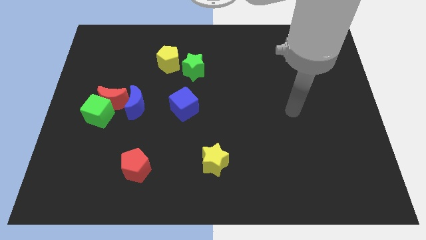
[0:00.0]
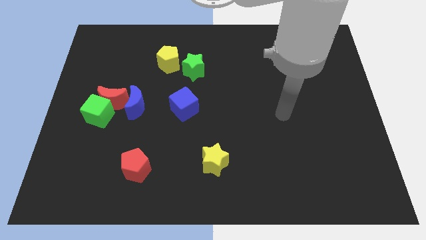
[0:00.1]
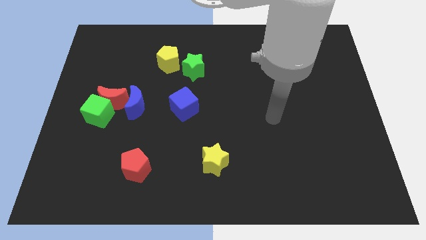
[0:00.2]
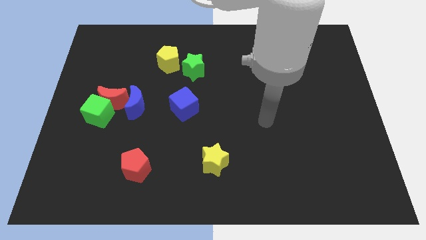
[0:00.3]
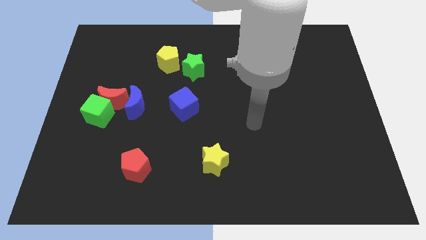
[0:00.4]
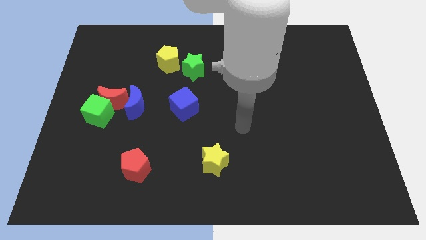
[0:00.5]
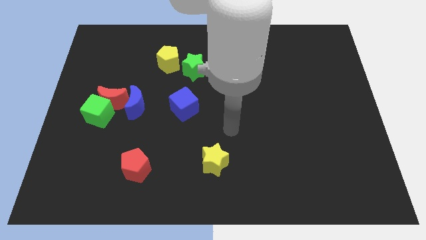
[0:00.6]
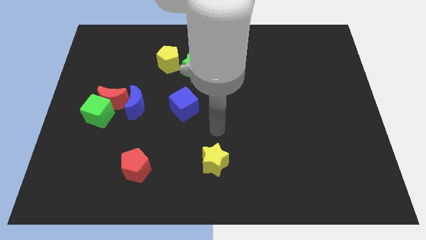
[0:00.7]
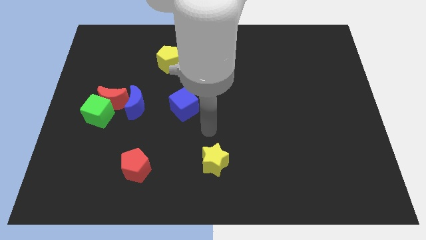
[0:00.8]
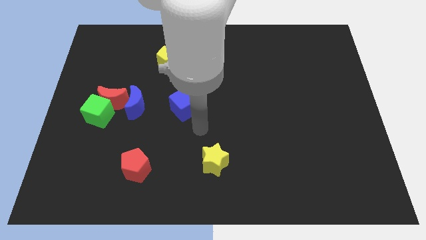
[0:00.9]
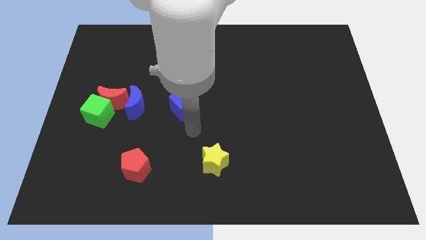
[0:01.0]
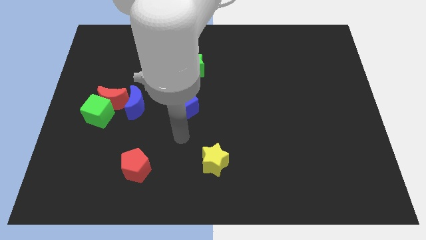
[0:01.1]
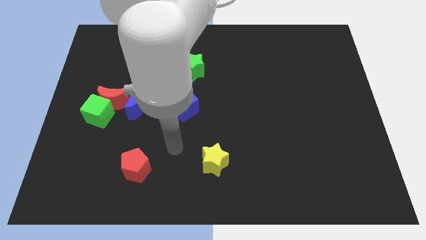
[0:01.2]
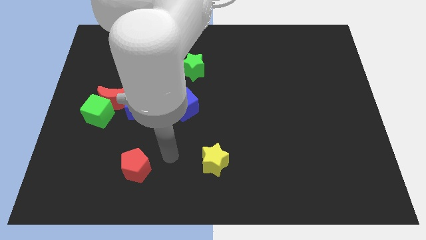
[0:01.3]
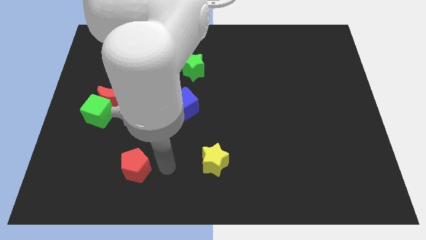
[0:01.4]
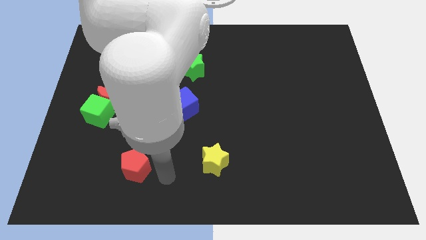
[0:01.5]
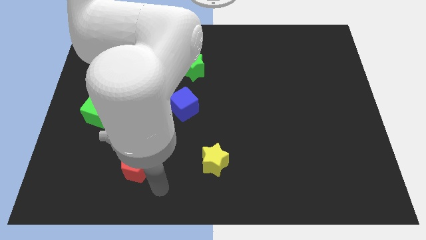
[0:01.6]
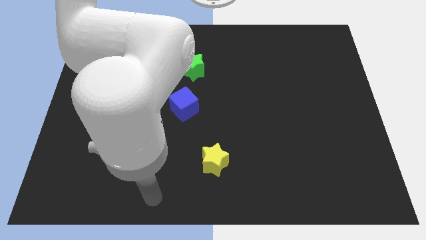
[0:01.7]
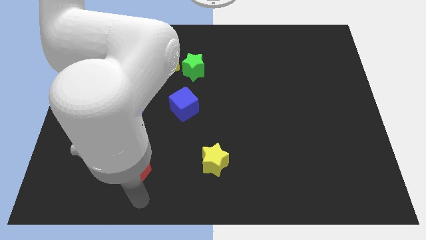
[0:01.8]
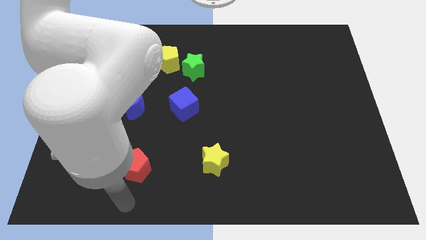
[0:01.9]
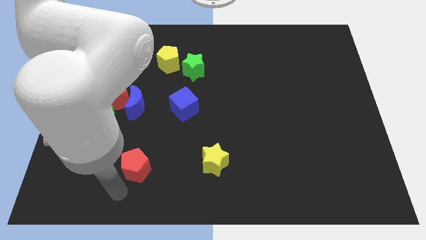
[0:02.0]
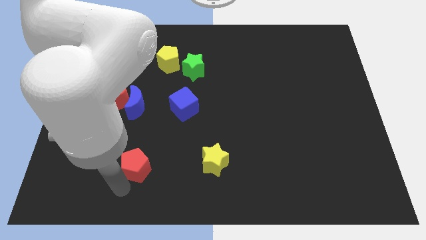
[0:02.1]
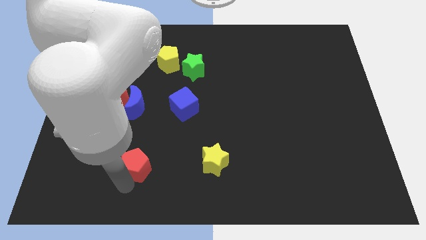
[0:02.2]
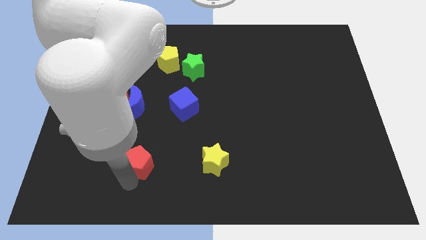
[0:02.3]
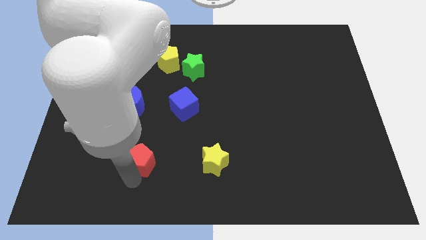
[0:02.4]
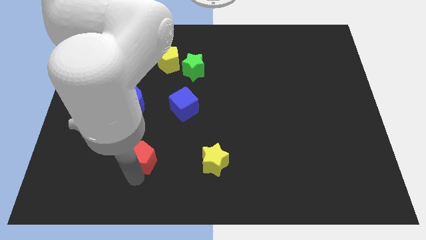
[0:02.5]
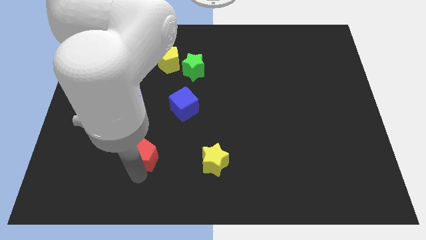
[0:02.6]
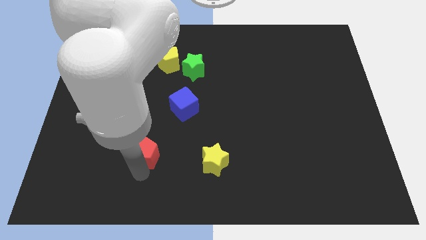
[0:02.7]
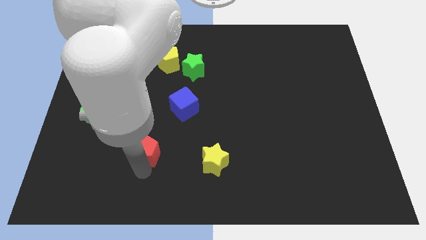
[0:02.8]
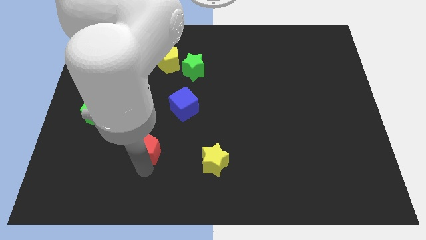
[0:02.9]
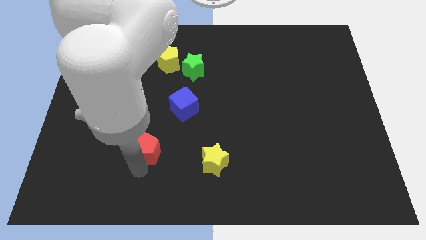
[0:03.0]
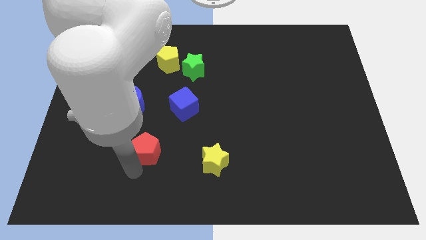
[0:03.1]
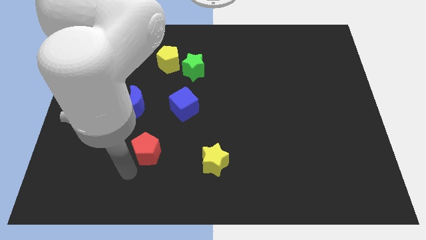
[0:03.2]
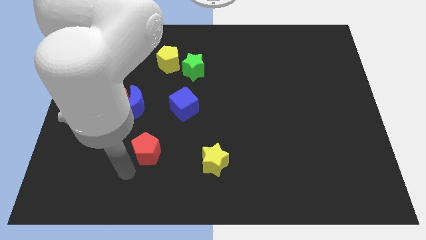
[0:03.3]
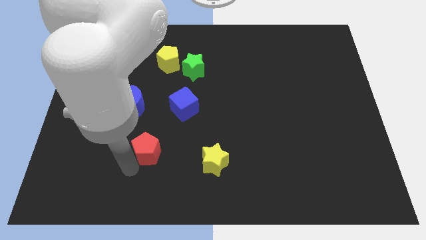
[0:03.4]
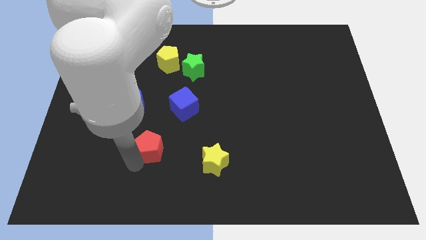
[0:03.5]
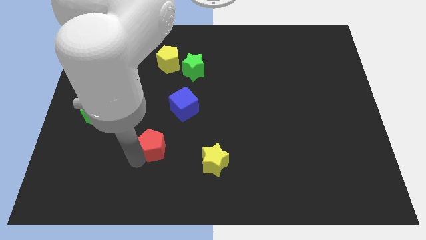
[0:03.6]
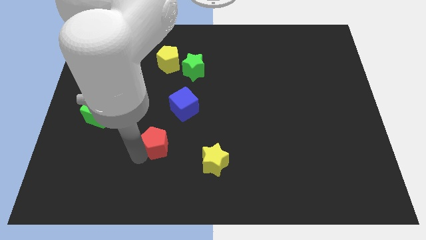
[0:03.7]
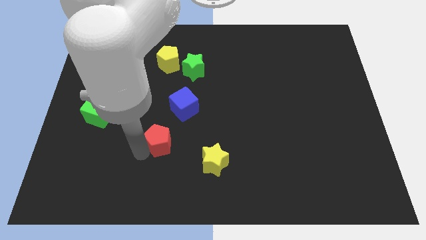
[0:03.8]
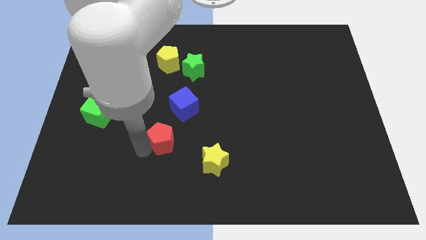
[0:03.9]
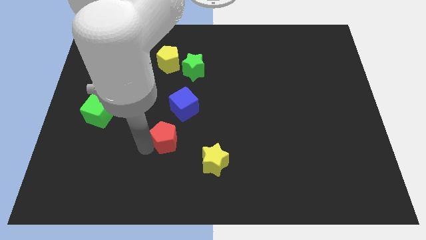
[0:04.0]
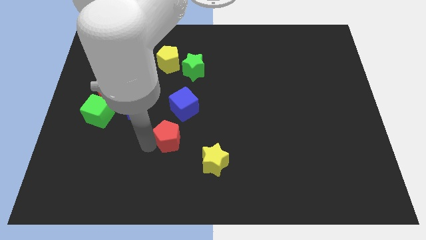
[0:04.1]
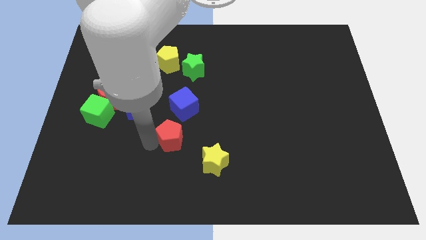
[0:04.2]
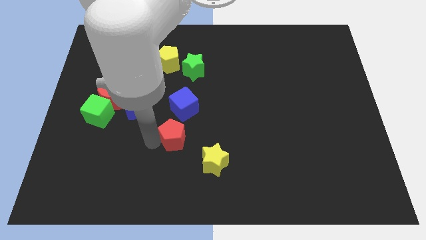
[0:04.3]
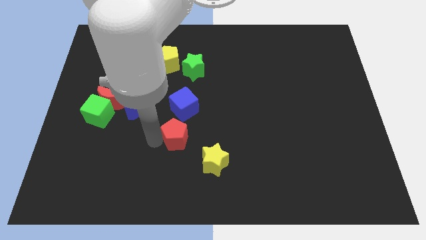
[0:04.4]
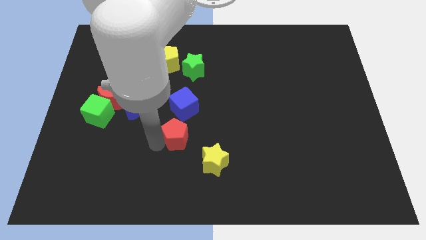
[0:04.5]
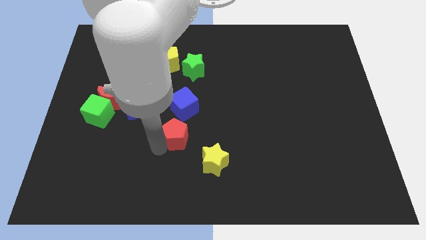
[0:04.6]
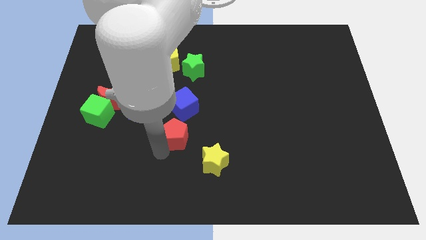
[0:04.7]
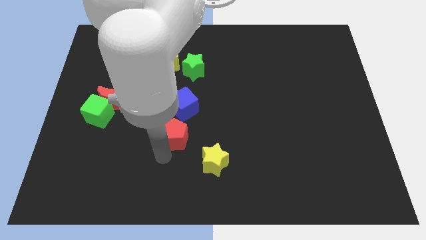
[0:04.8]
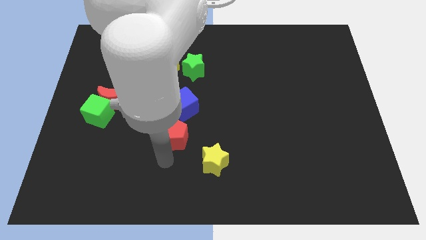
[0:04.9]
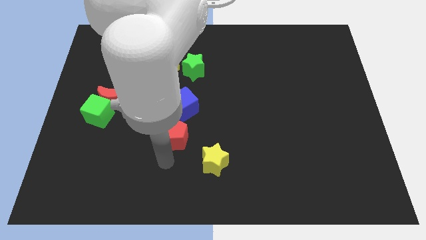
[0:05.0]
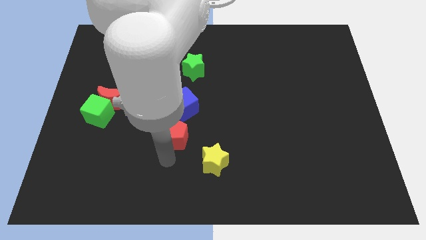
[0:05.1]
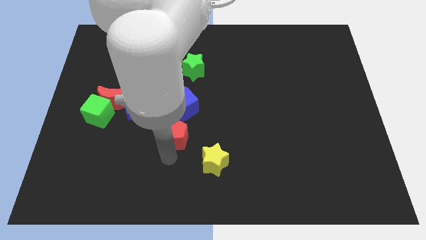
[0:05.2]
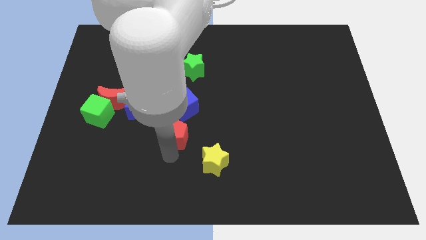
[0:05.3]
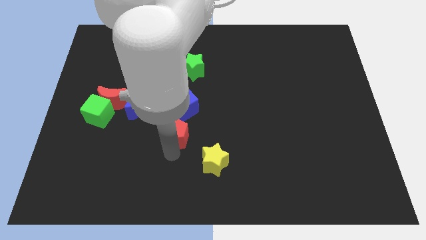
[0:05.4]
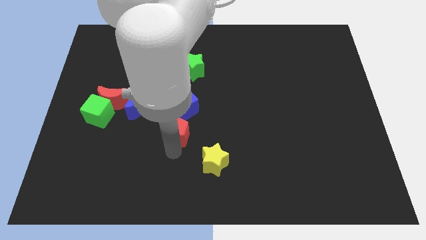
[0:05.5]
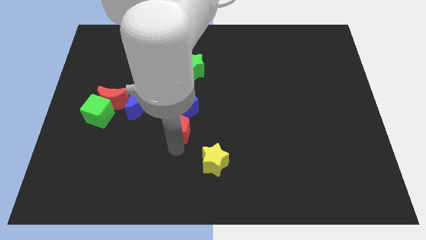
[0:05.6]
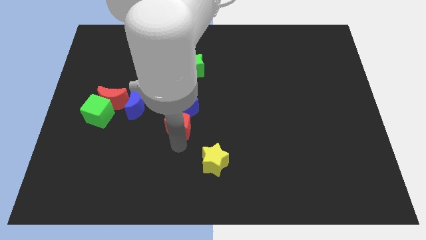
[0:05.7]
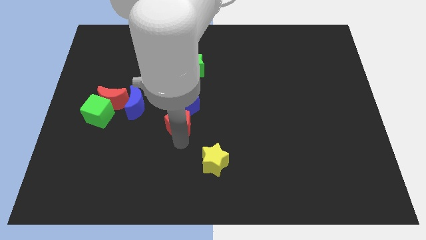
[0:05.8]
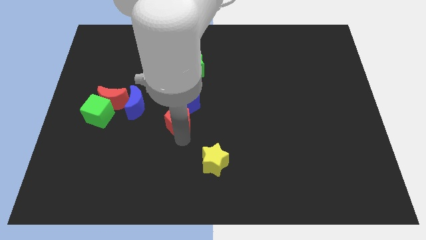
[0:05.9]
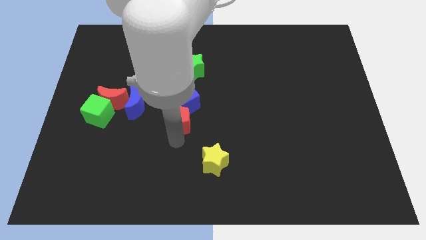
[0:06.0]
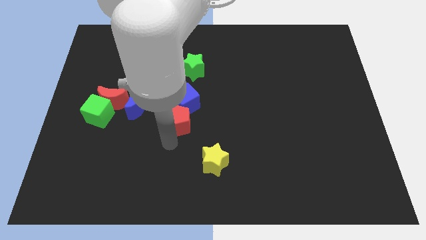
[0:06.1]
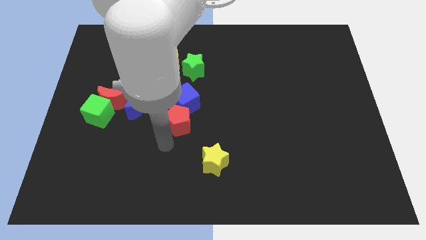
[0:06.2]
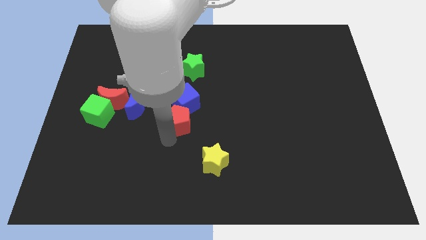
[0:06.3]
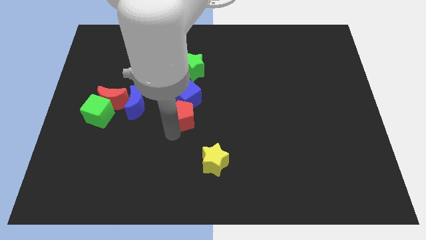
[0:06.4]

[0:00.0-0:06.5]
move the red pentagon to the bottom of the green star

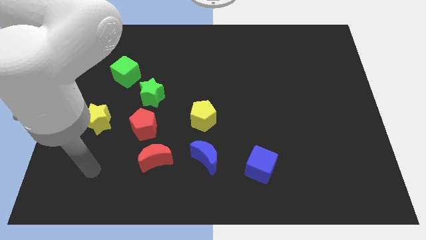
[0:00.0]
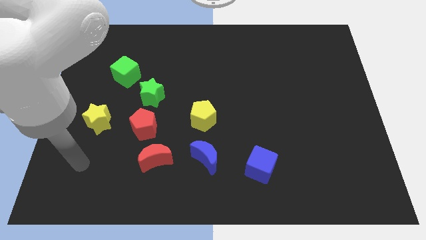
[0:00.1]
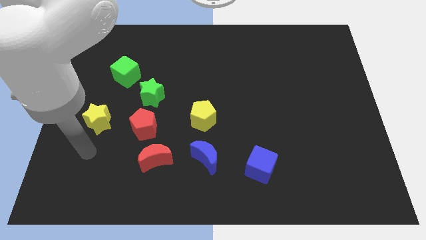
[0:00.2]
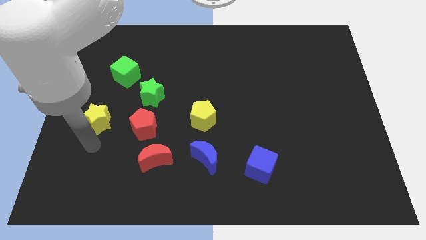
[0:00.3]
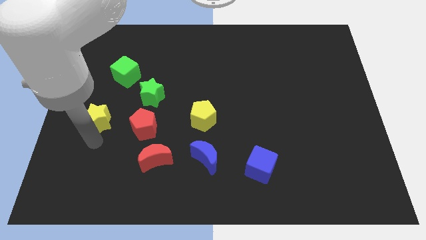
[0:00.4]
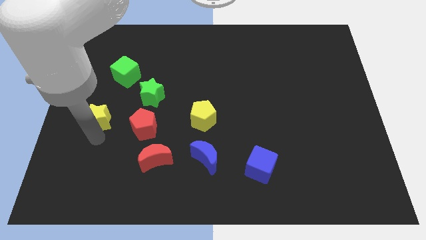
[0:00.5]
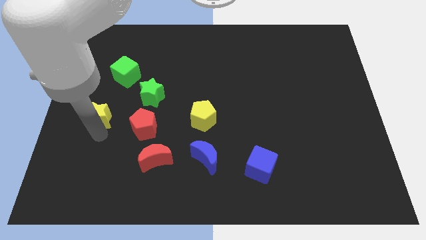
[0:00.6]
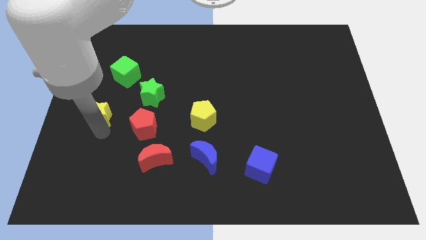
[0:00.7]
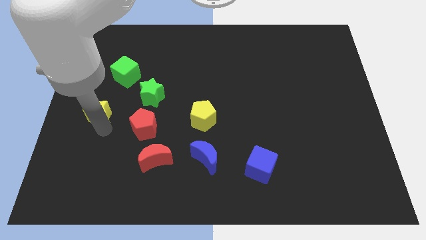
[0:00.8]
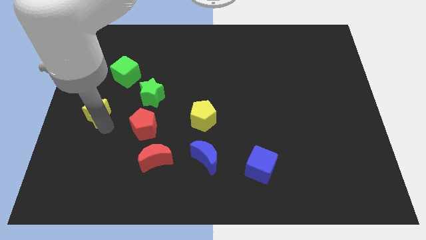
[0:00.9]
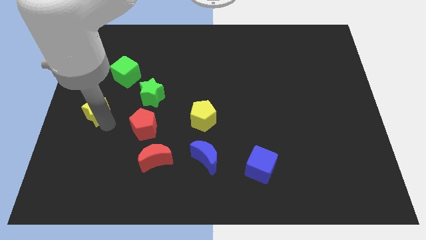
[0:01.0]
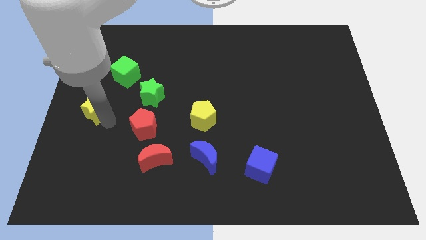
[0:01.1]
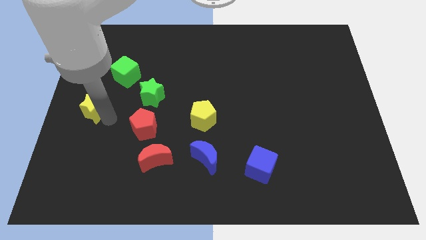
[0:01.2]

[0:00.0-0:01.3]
put the yellow star left of the green star

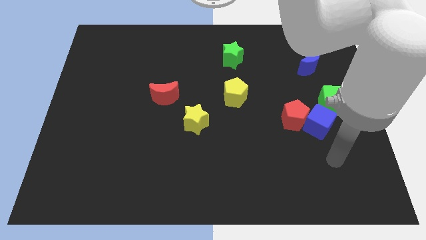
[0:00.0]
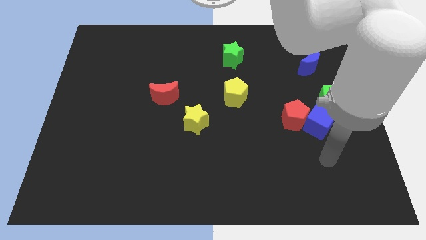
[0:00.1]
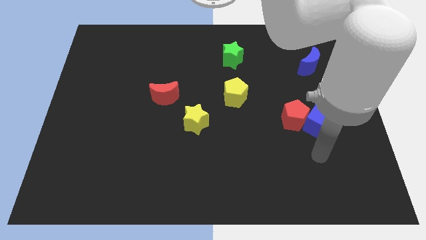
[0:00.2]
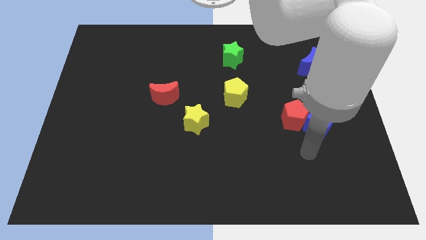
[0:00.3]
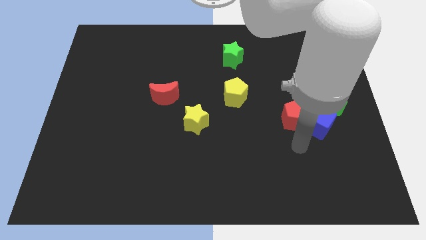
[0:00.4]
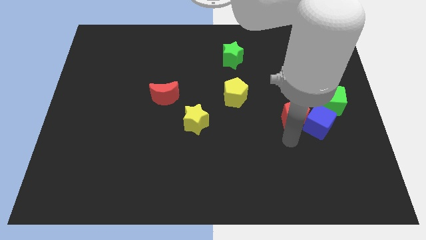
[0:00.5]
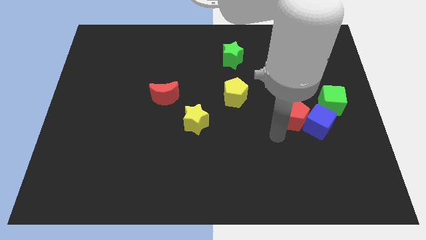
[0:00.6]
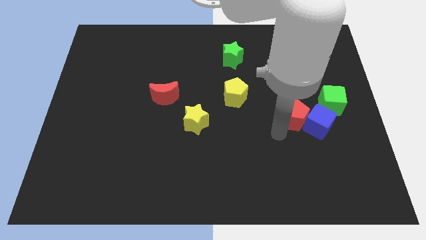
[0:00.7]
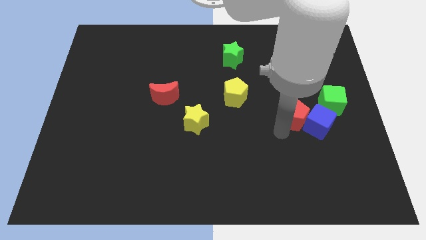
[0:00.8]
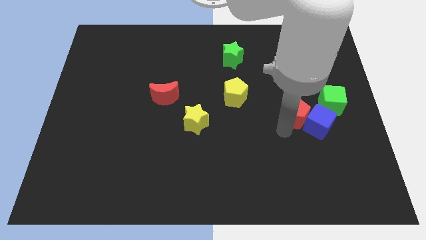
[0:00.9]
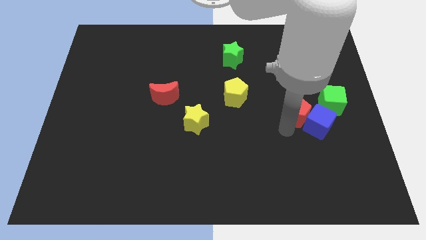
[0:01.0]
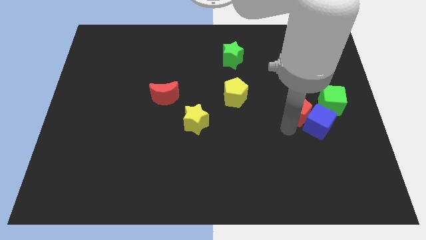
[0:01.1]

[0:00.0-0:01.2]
push the red pentagon to the top side of the blue cube
